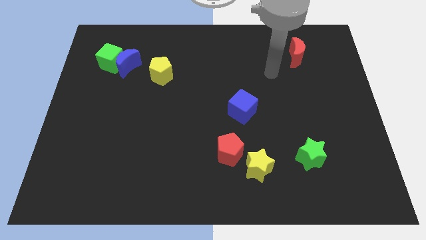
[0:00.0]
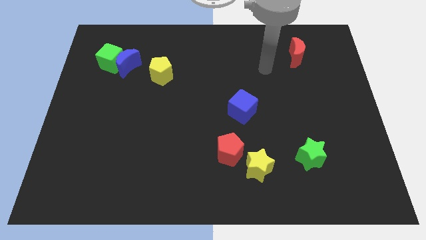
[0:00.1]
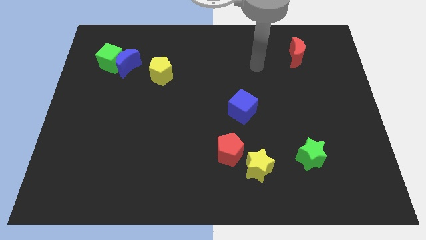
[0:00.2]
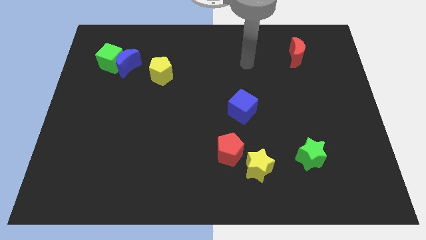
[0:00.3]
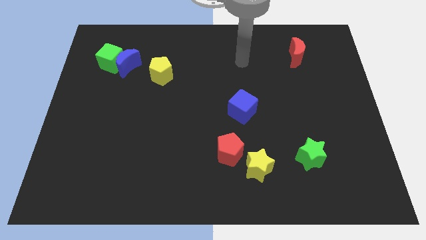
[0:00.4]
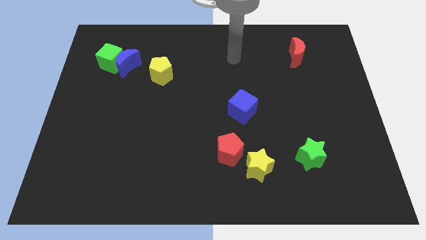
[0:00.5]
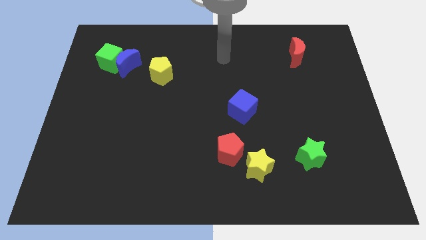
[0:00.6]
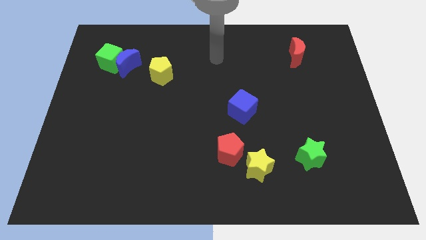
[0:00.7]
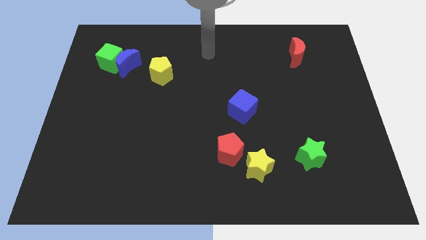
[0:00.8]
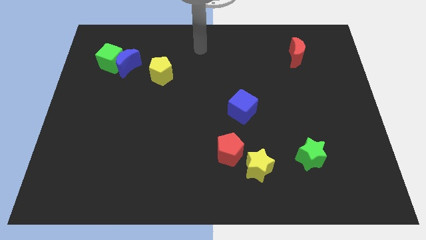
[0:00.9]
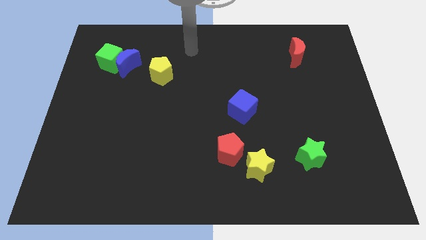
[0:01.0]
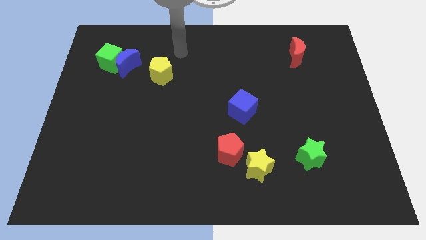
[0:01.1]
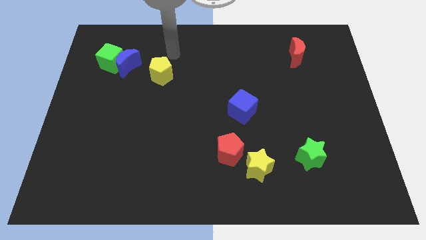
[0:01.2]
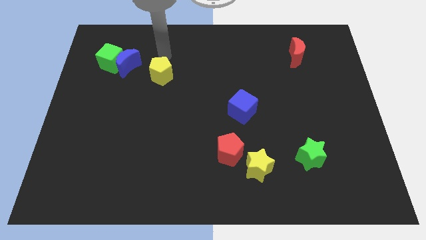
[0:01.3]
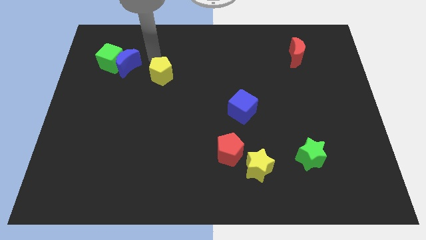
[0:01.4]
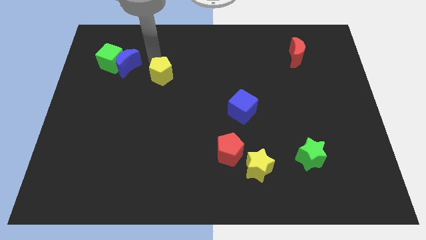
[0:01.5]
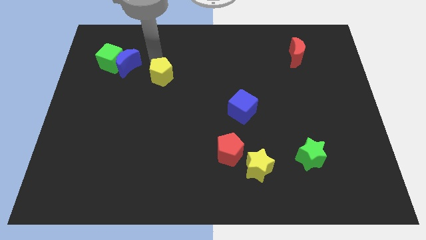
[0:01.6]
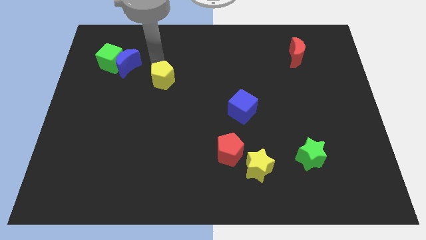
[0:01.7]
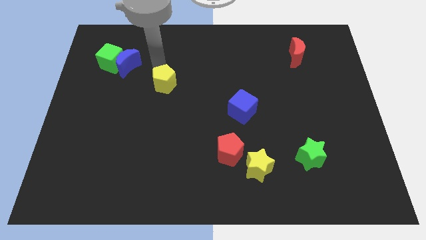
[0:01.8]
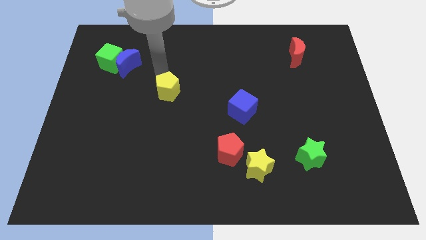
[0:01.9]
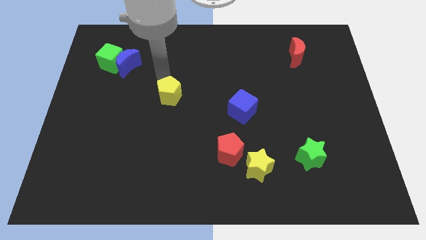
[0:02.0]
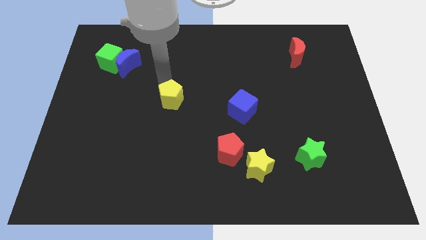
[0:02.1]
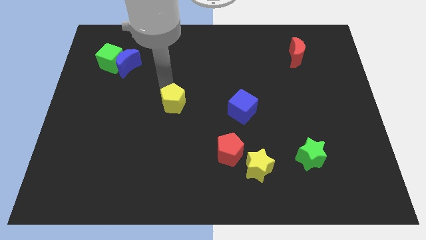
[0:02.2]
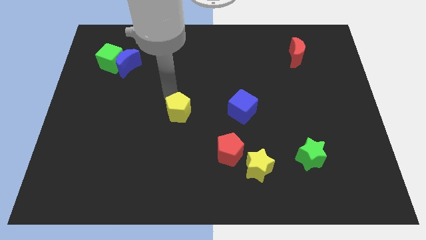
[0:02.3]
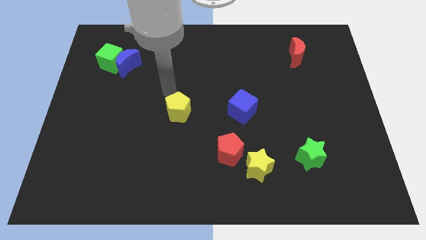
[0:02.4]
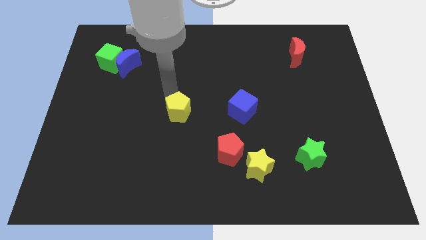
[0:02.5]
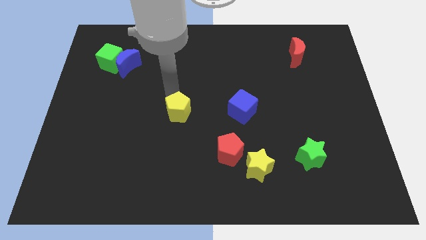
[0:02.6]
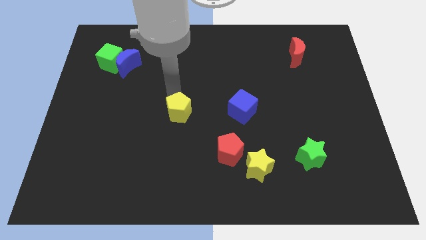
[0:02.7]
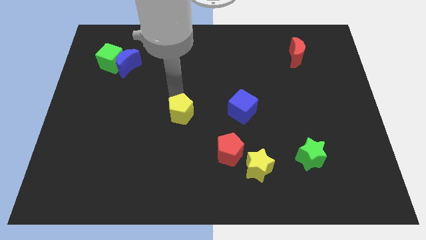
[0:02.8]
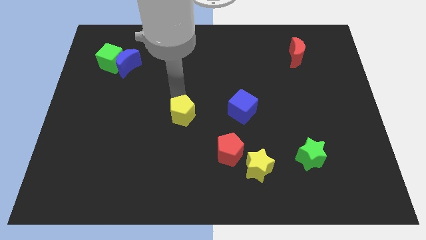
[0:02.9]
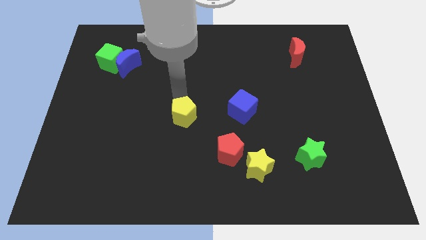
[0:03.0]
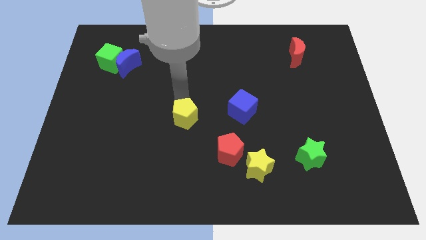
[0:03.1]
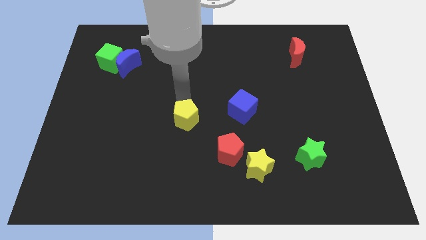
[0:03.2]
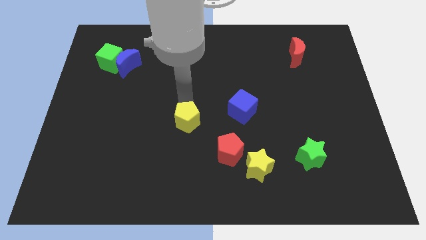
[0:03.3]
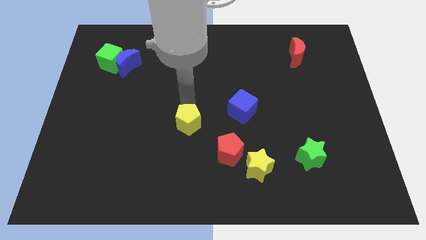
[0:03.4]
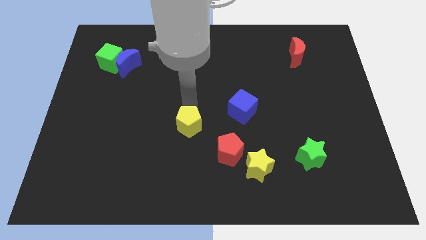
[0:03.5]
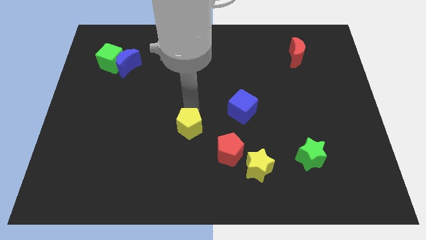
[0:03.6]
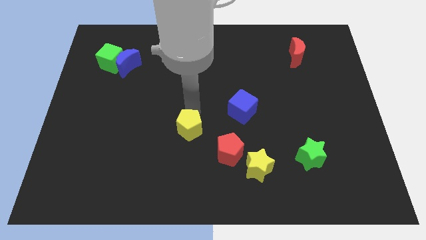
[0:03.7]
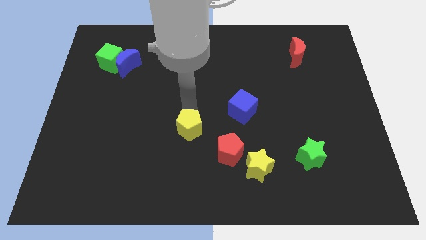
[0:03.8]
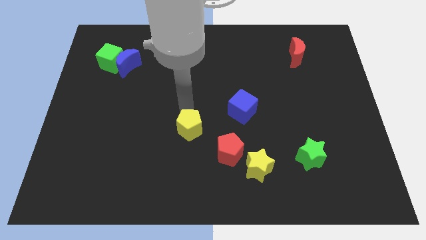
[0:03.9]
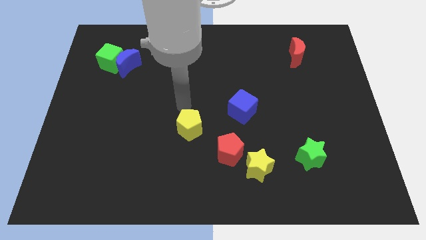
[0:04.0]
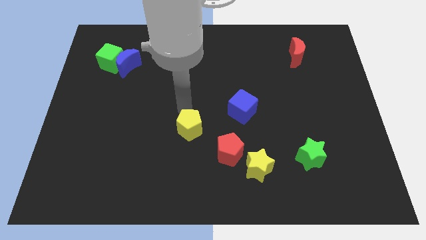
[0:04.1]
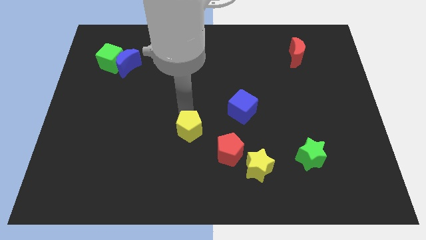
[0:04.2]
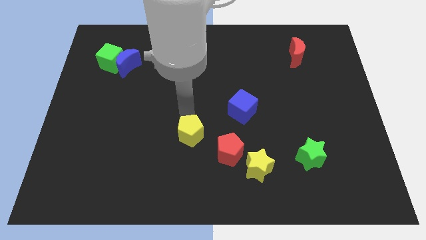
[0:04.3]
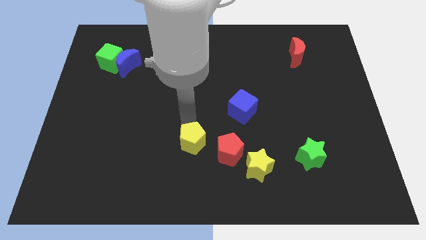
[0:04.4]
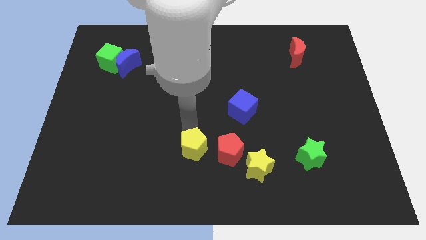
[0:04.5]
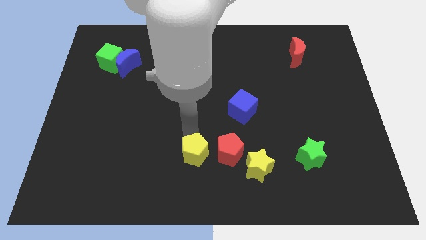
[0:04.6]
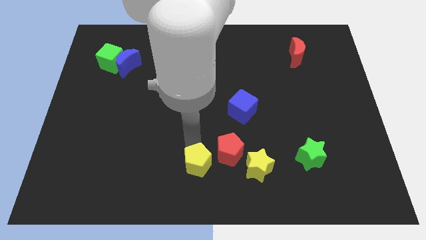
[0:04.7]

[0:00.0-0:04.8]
move the yellow pentagon to the bottom side

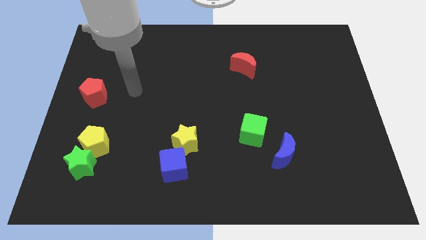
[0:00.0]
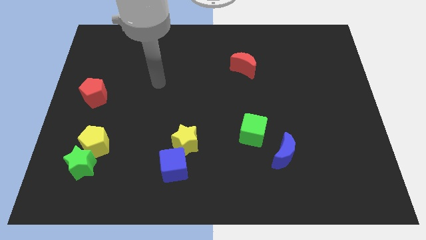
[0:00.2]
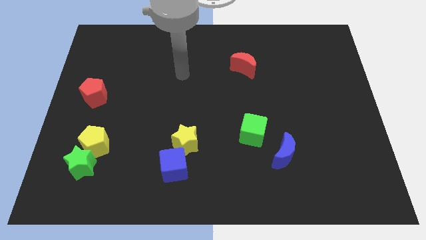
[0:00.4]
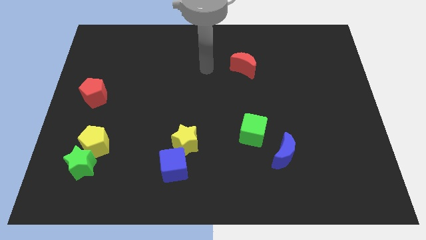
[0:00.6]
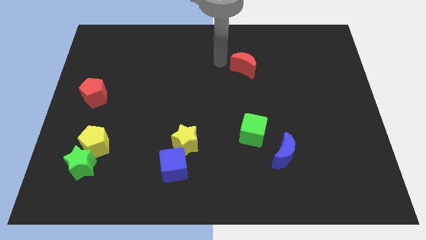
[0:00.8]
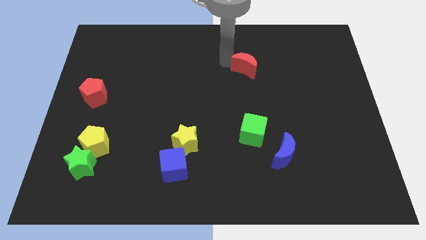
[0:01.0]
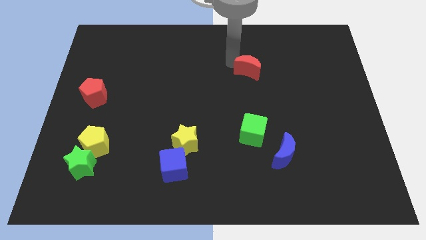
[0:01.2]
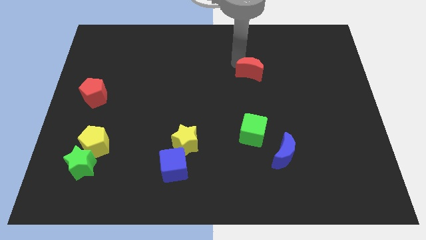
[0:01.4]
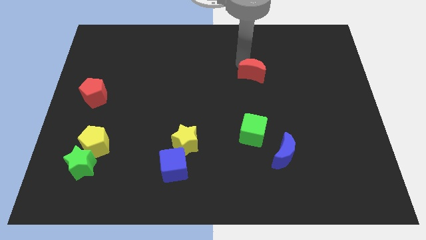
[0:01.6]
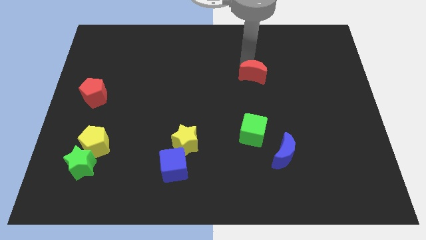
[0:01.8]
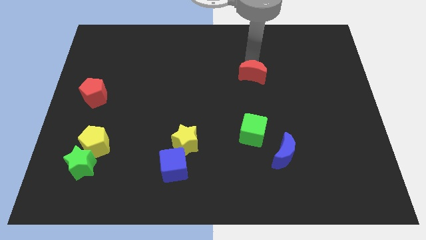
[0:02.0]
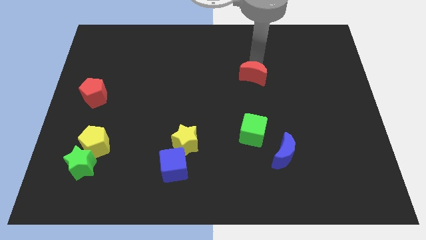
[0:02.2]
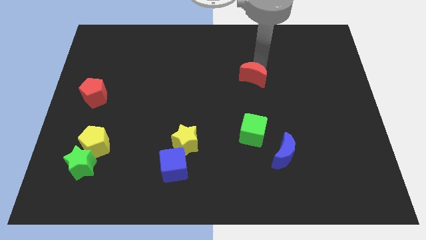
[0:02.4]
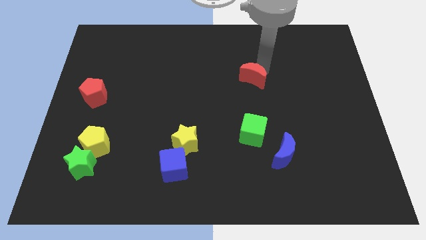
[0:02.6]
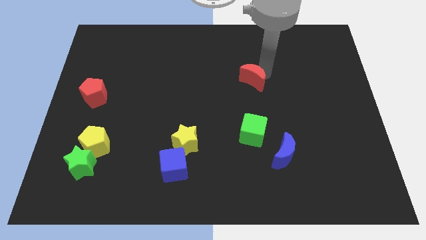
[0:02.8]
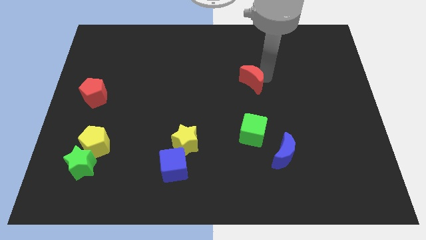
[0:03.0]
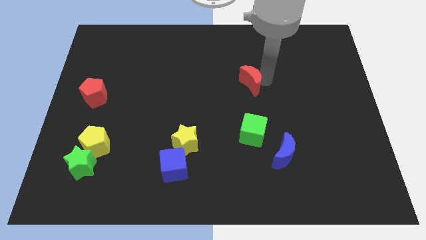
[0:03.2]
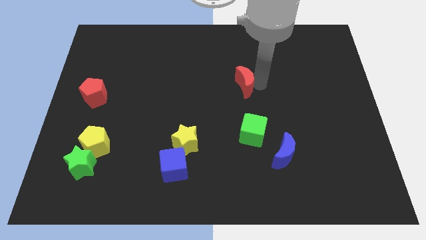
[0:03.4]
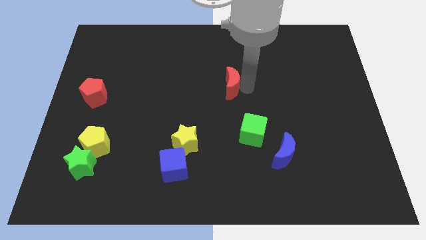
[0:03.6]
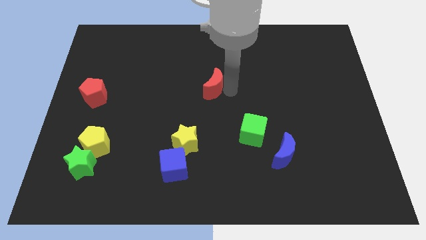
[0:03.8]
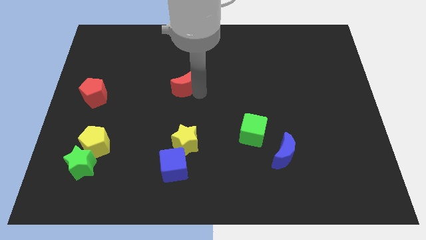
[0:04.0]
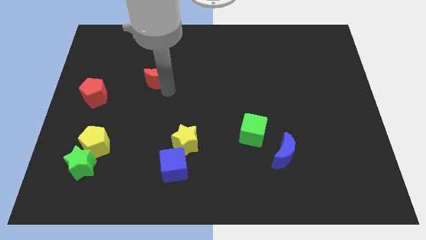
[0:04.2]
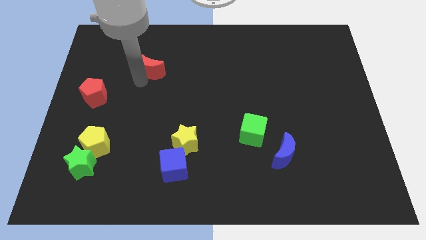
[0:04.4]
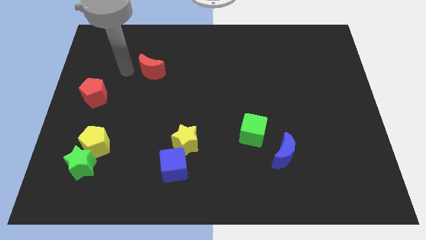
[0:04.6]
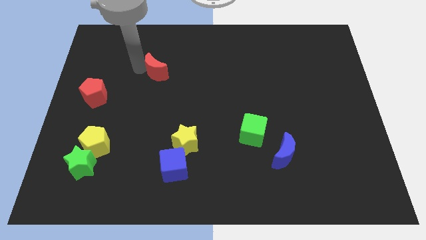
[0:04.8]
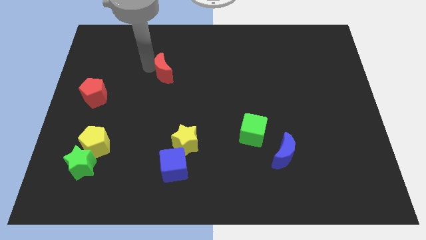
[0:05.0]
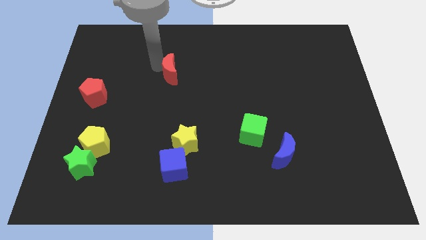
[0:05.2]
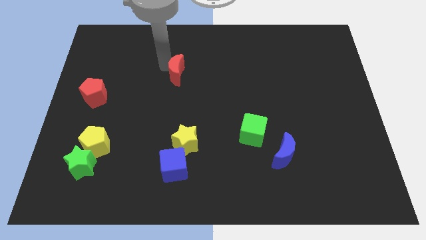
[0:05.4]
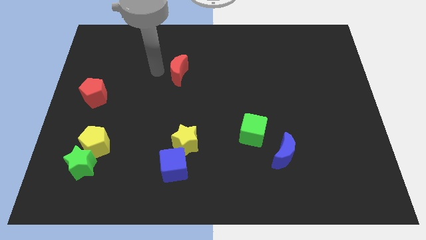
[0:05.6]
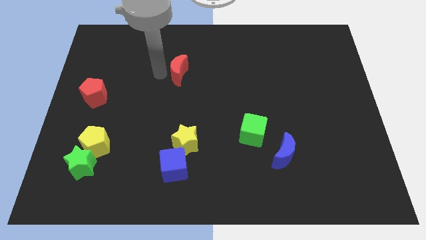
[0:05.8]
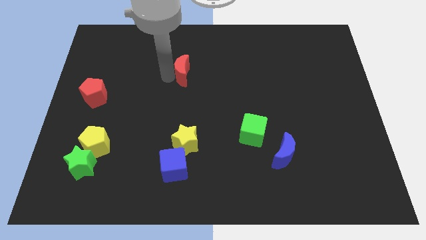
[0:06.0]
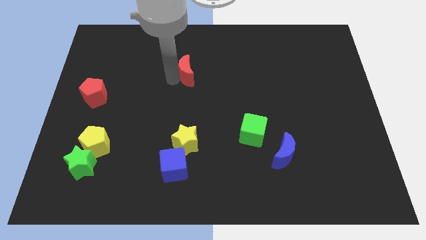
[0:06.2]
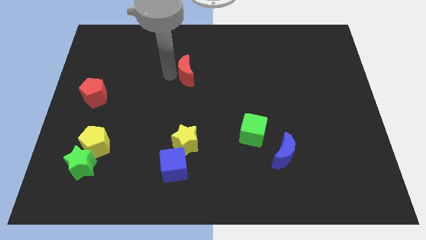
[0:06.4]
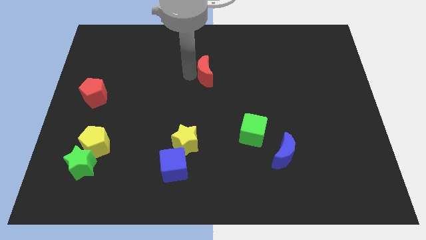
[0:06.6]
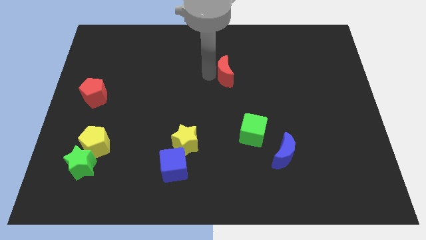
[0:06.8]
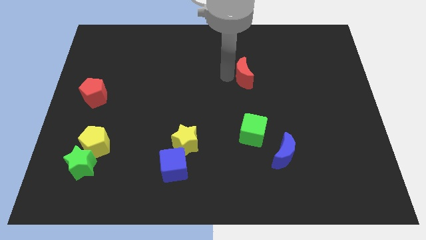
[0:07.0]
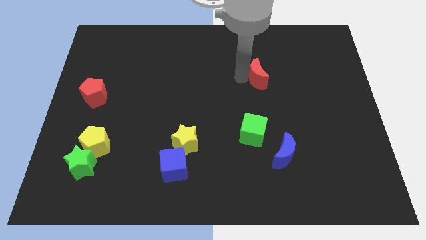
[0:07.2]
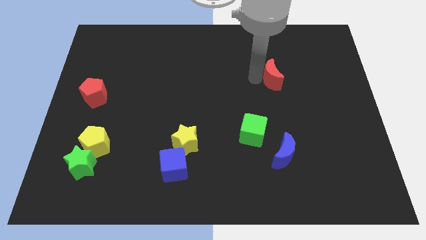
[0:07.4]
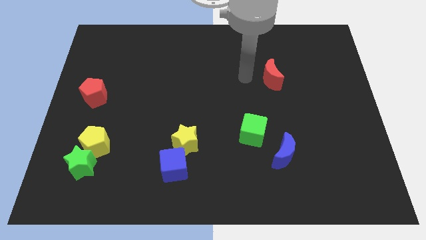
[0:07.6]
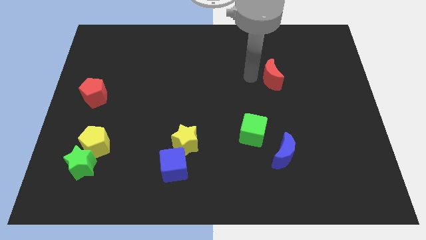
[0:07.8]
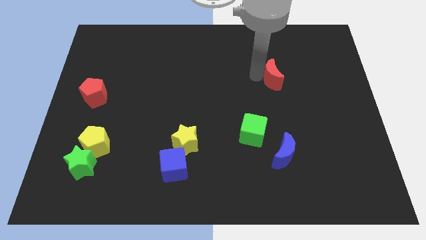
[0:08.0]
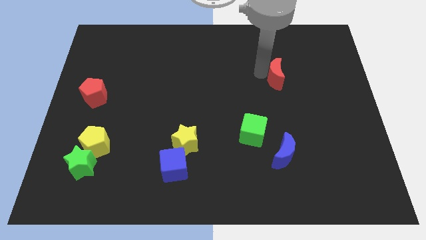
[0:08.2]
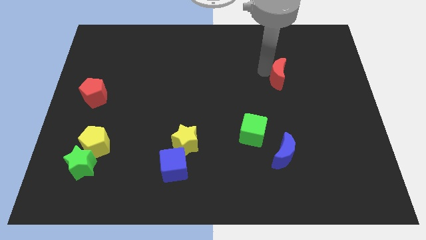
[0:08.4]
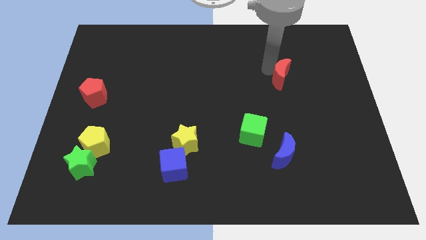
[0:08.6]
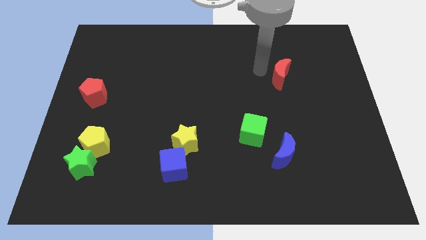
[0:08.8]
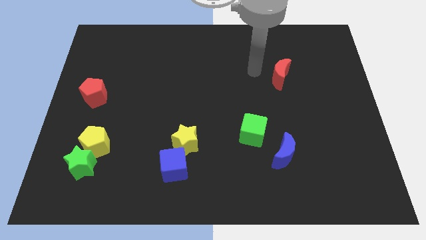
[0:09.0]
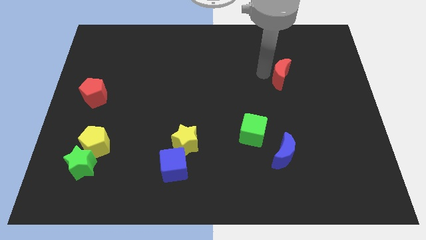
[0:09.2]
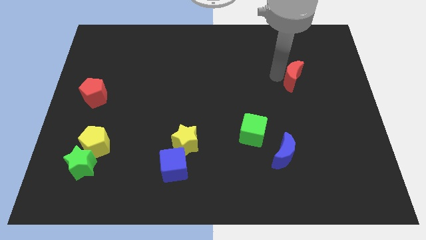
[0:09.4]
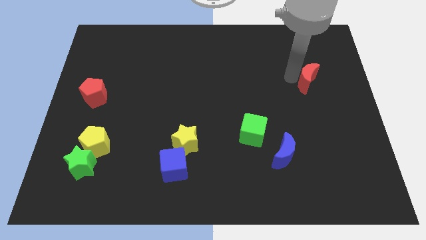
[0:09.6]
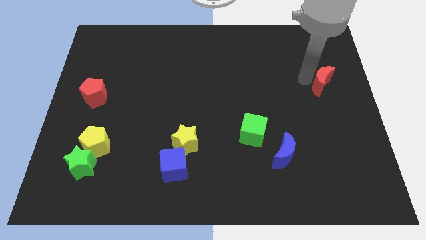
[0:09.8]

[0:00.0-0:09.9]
put the red moon to the center right
